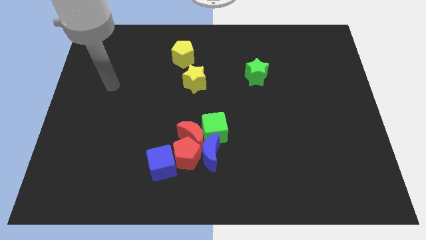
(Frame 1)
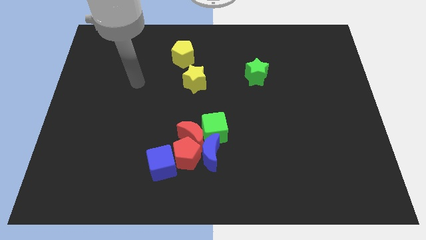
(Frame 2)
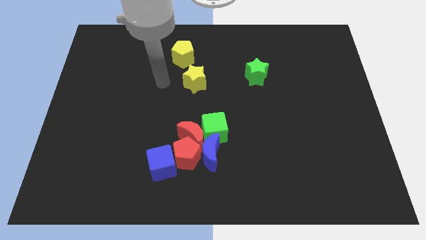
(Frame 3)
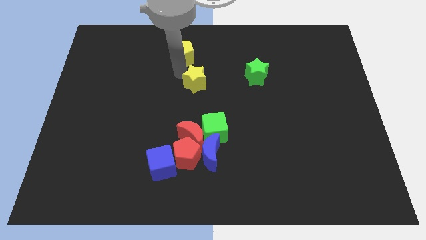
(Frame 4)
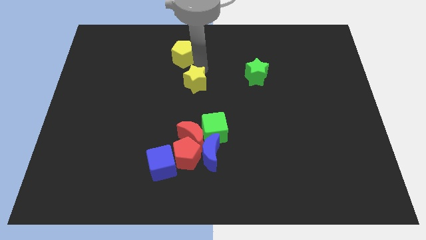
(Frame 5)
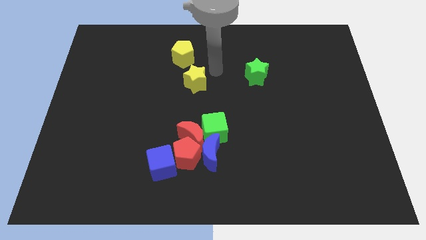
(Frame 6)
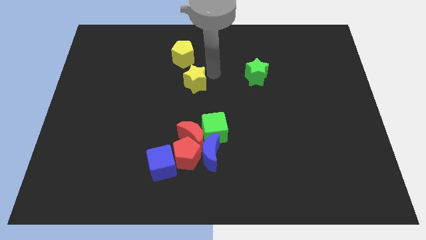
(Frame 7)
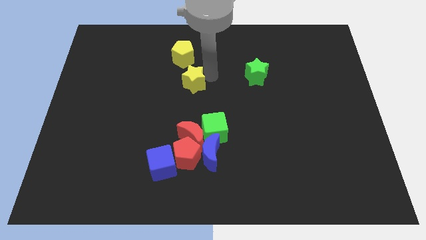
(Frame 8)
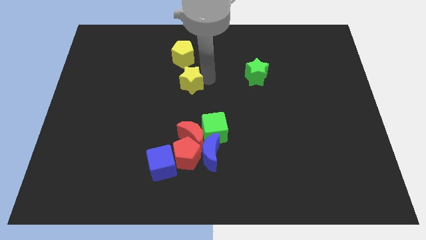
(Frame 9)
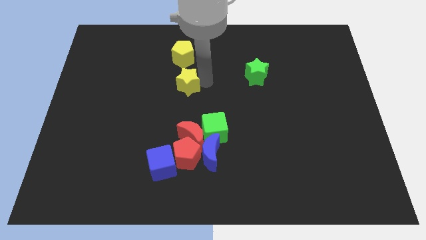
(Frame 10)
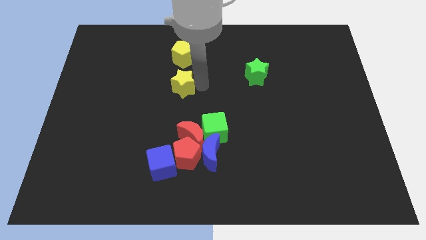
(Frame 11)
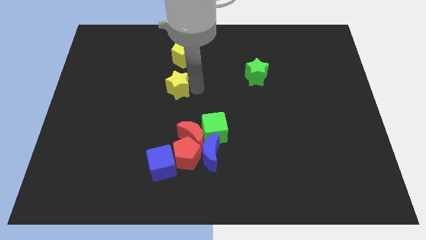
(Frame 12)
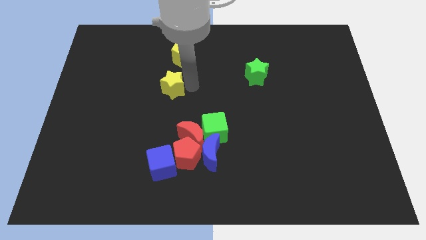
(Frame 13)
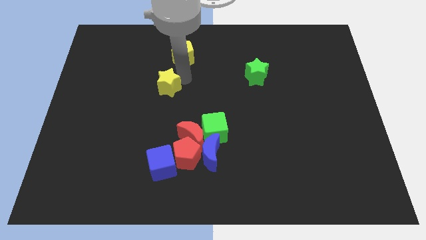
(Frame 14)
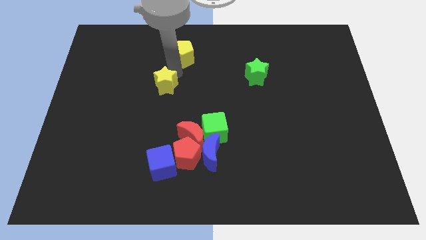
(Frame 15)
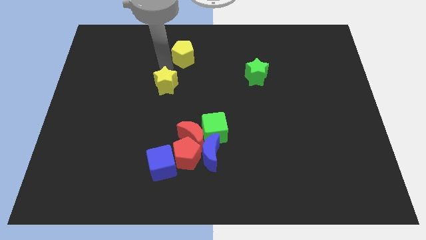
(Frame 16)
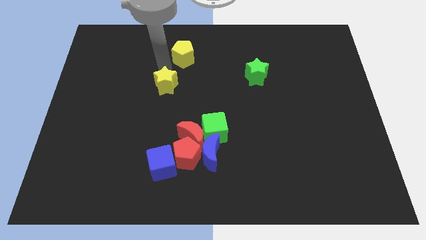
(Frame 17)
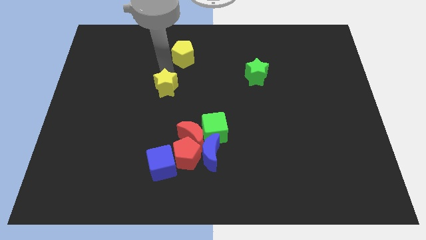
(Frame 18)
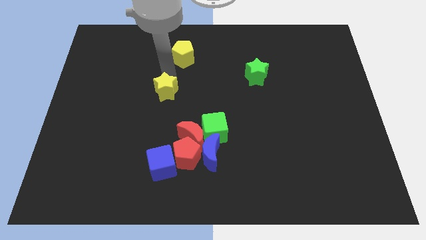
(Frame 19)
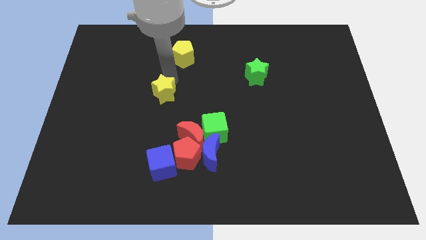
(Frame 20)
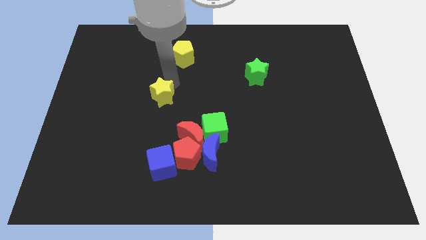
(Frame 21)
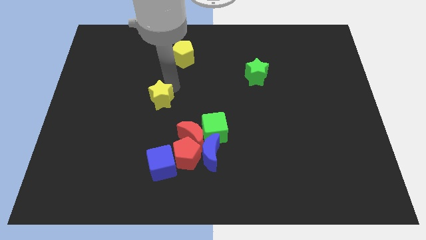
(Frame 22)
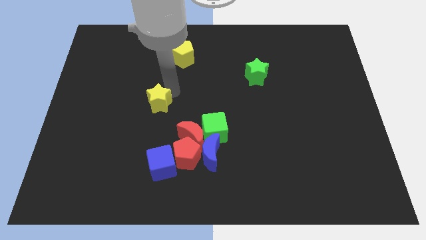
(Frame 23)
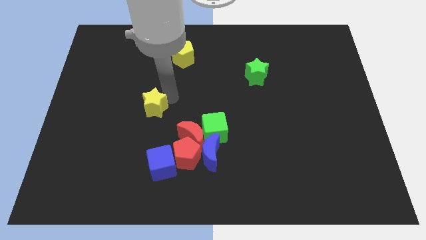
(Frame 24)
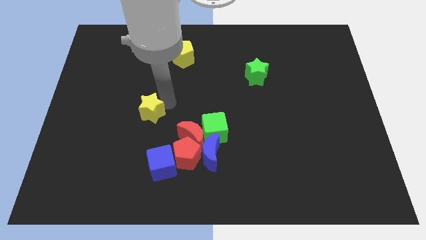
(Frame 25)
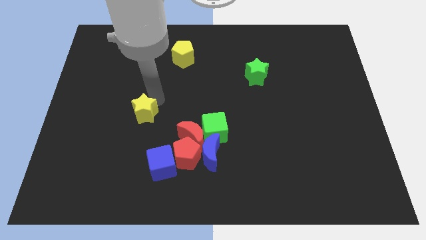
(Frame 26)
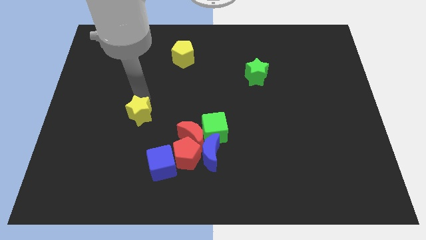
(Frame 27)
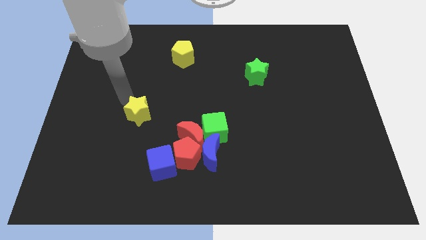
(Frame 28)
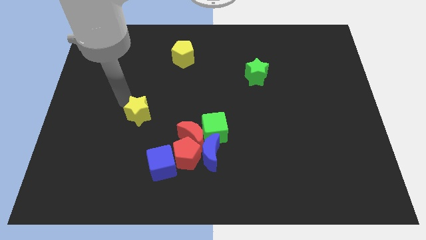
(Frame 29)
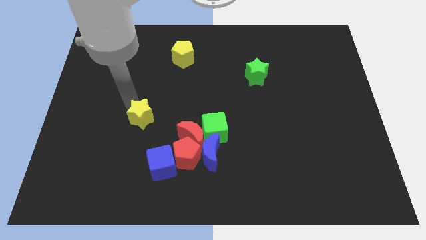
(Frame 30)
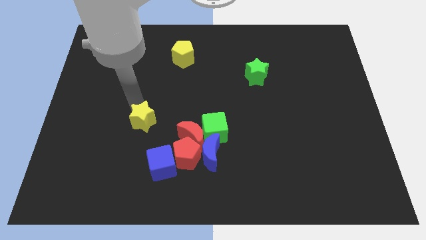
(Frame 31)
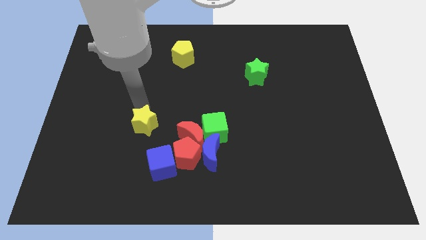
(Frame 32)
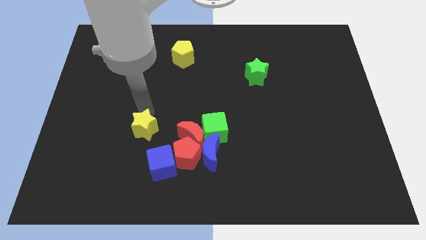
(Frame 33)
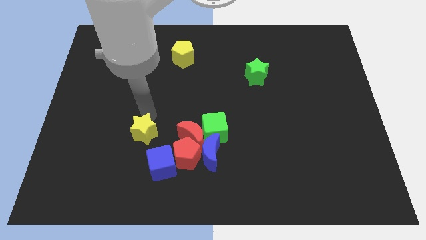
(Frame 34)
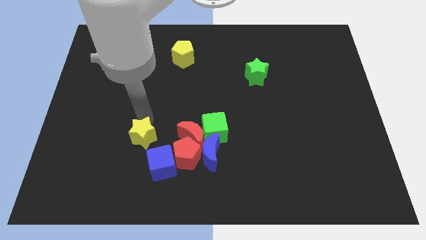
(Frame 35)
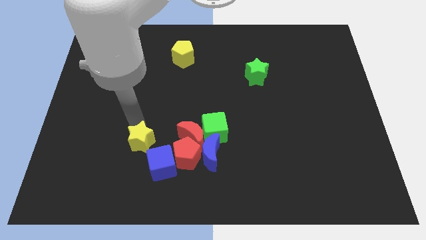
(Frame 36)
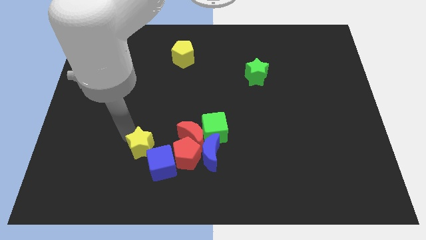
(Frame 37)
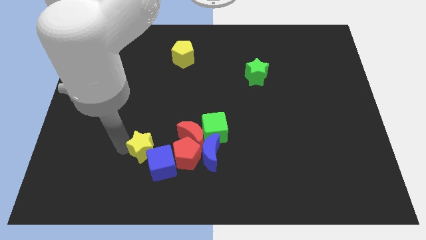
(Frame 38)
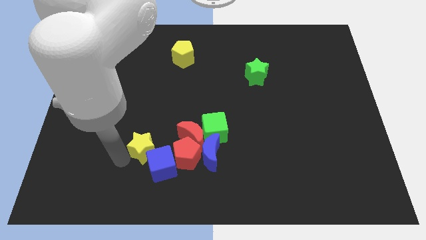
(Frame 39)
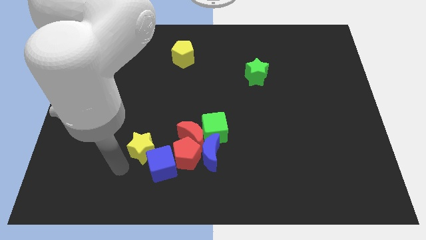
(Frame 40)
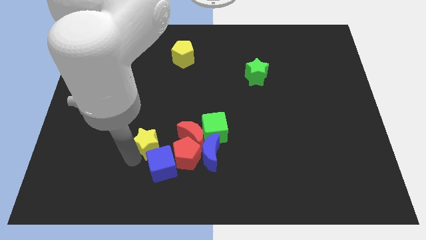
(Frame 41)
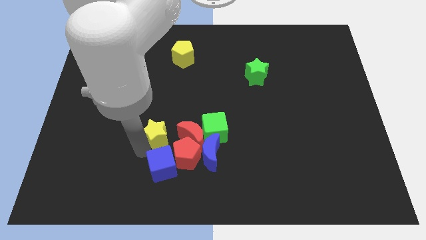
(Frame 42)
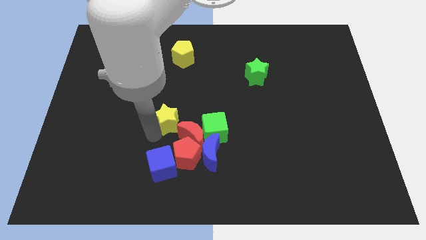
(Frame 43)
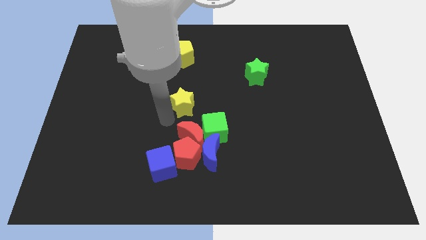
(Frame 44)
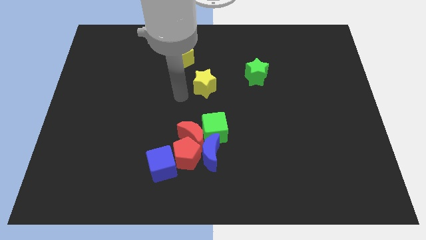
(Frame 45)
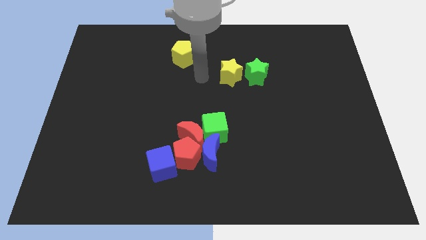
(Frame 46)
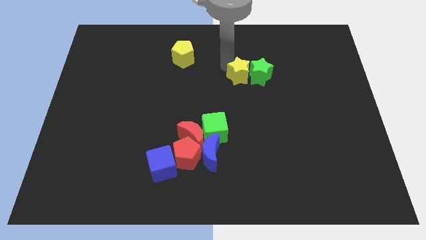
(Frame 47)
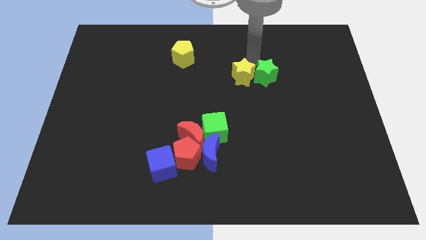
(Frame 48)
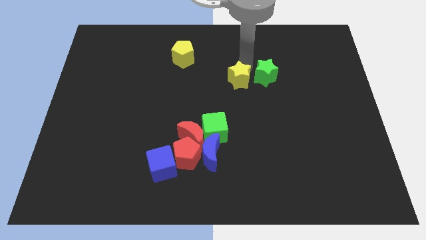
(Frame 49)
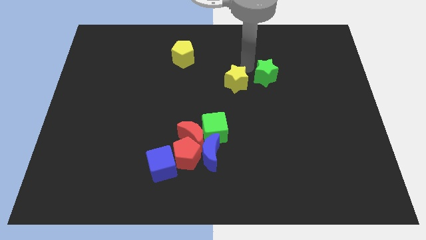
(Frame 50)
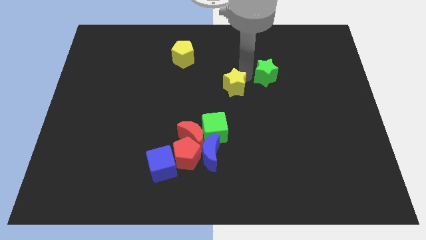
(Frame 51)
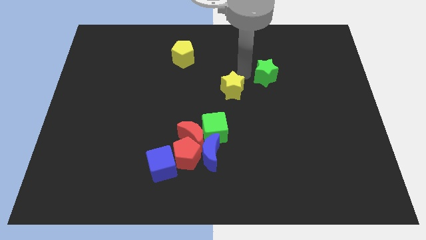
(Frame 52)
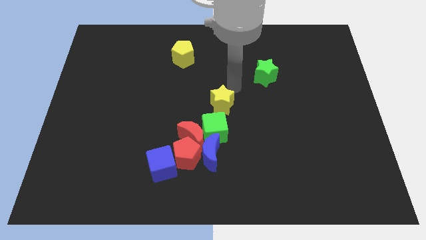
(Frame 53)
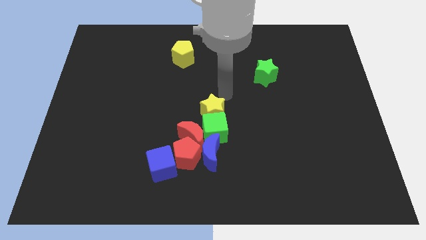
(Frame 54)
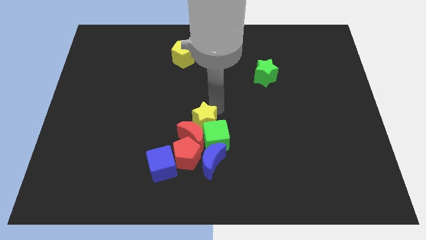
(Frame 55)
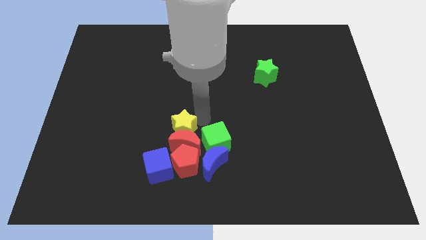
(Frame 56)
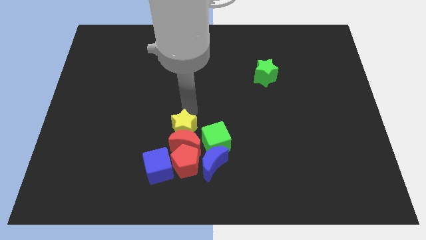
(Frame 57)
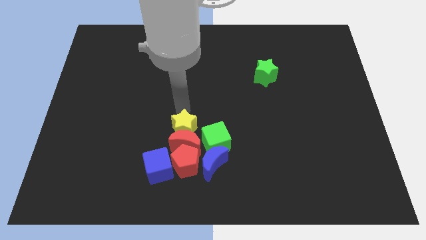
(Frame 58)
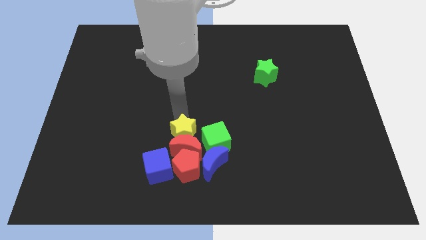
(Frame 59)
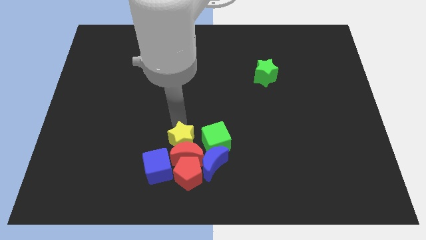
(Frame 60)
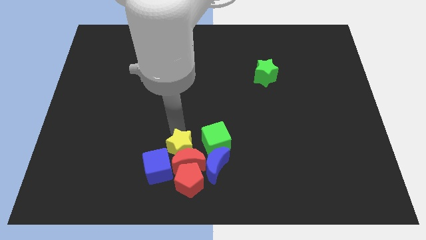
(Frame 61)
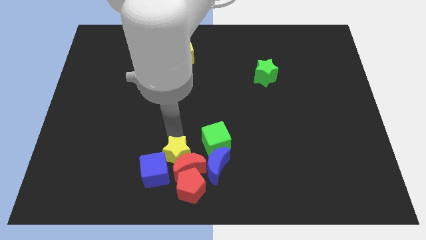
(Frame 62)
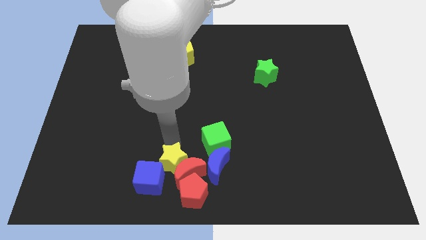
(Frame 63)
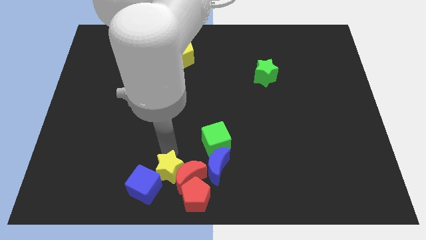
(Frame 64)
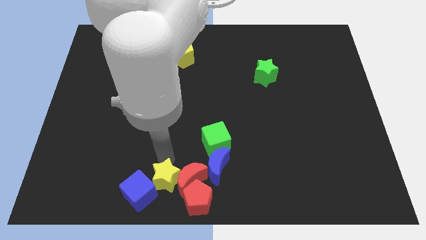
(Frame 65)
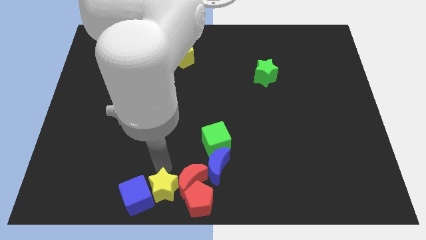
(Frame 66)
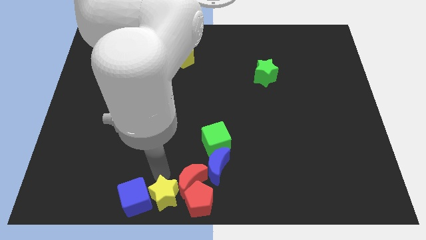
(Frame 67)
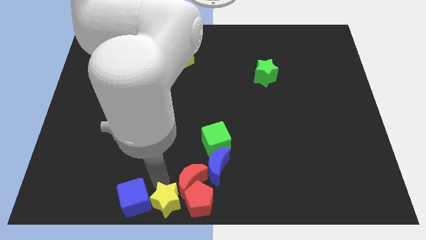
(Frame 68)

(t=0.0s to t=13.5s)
move the yellow star to the red pentagon

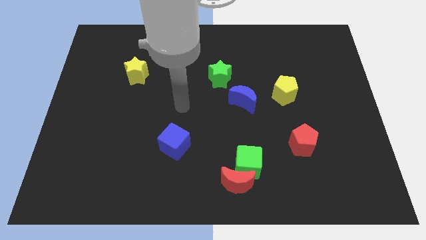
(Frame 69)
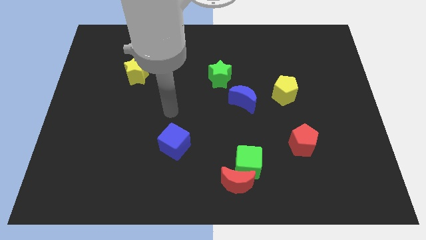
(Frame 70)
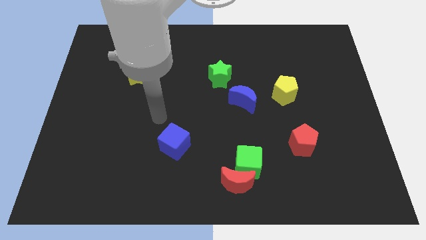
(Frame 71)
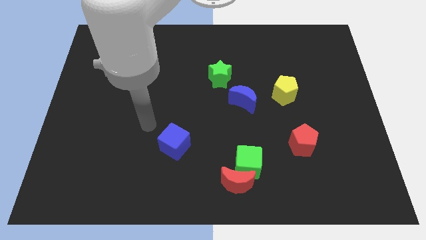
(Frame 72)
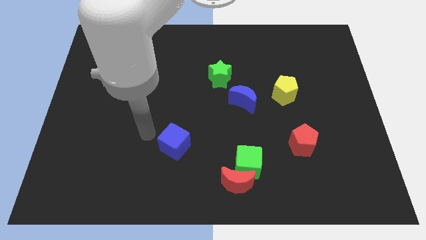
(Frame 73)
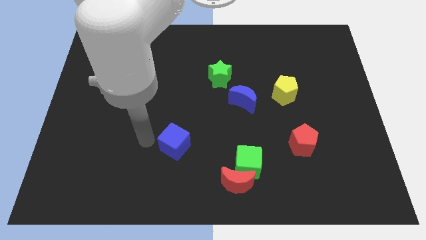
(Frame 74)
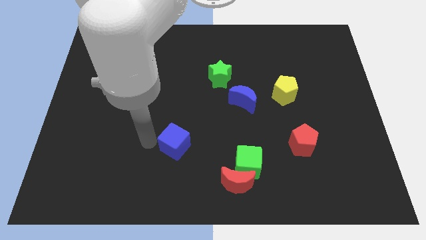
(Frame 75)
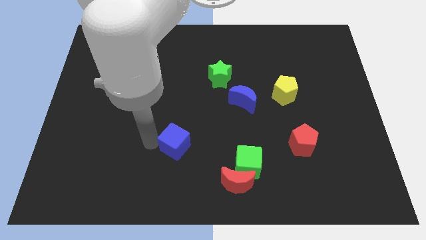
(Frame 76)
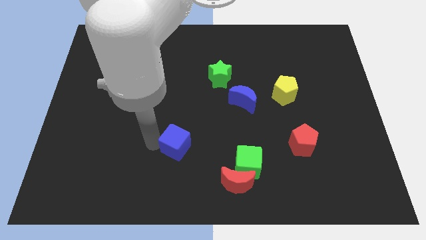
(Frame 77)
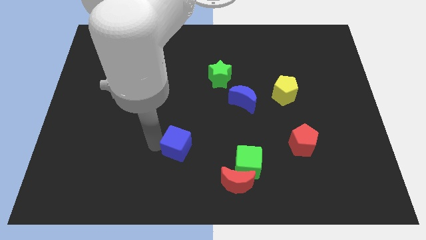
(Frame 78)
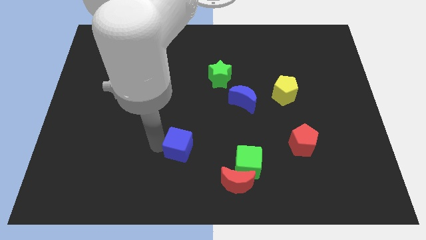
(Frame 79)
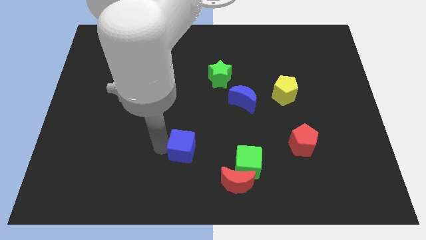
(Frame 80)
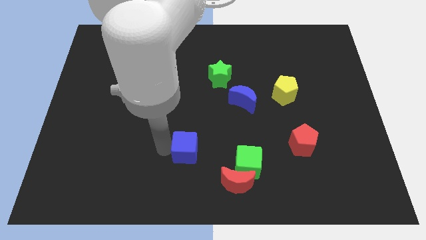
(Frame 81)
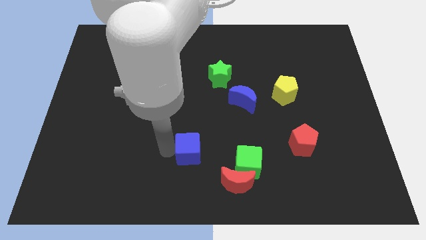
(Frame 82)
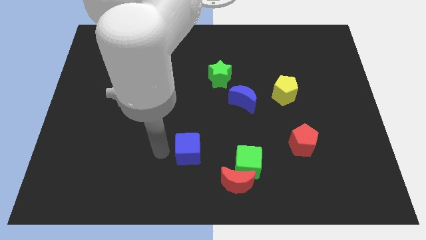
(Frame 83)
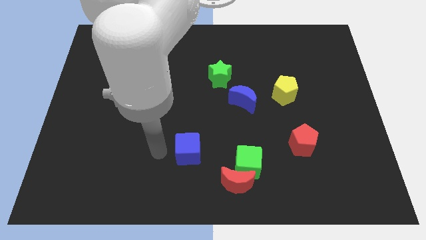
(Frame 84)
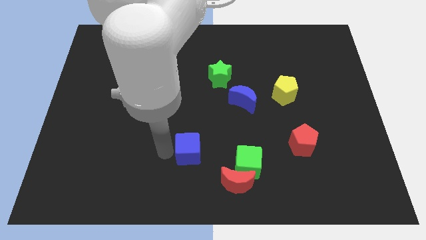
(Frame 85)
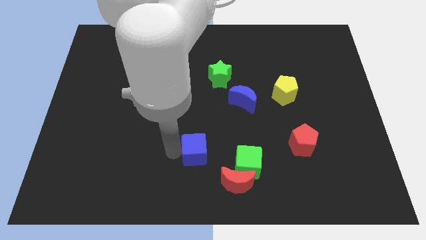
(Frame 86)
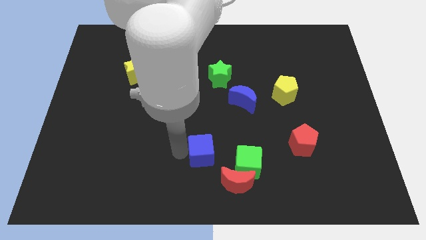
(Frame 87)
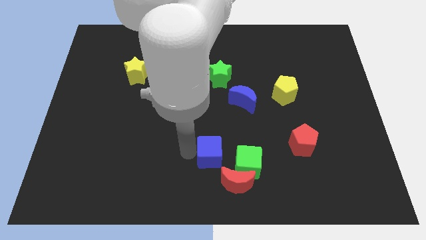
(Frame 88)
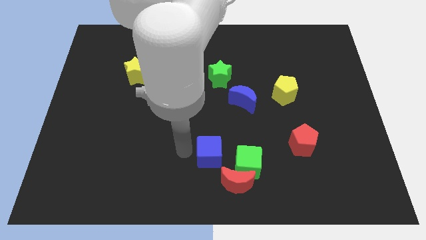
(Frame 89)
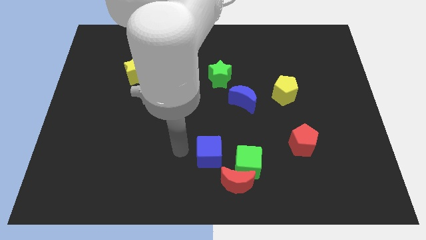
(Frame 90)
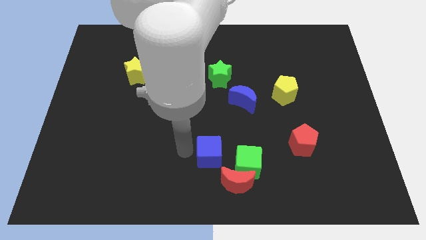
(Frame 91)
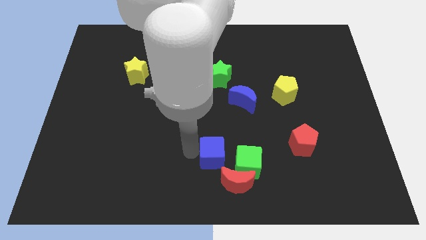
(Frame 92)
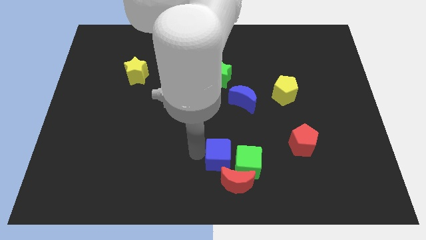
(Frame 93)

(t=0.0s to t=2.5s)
push the blue cube to the green cube
